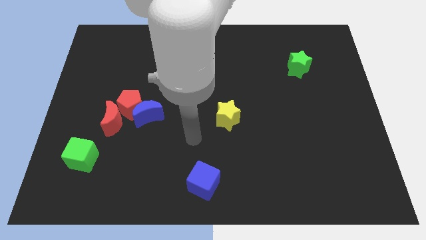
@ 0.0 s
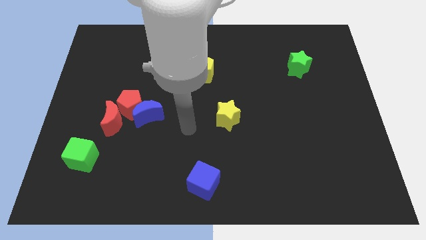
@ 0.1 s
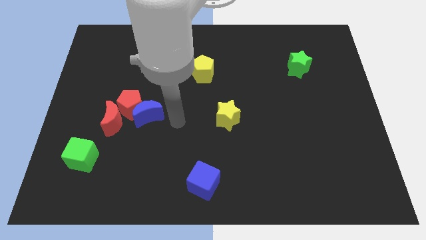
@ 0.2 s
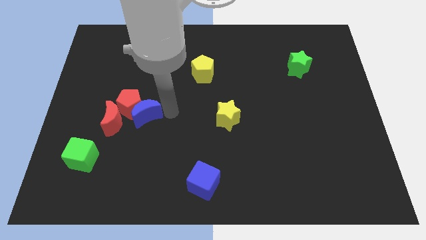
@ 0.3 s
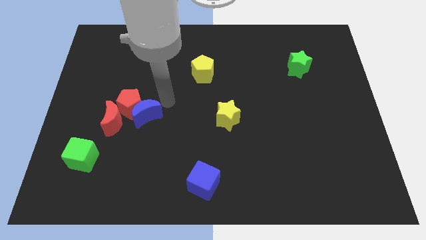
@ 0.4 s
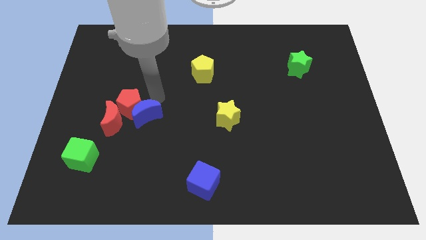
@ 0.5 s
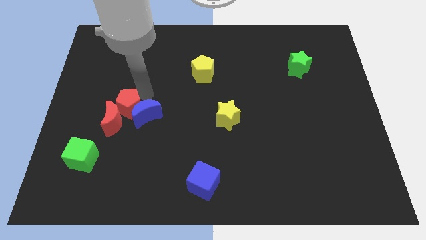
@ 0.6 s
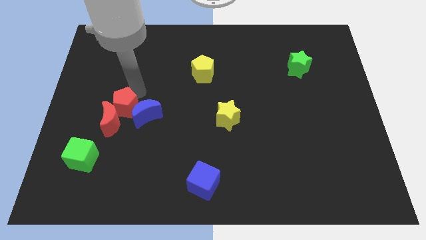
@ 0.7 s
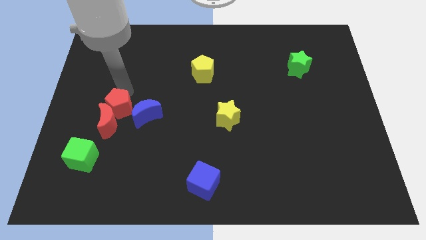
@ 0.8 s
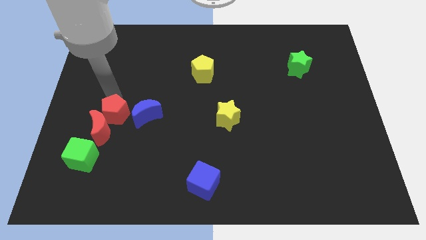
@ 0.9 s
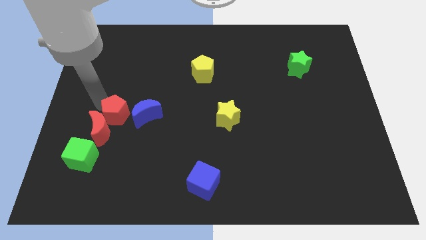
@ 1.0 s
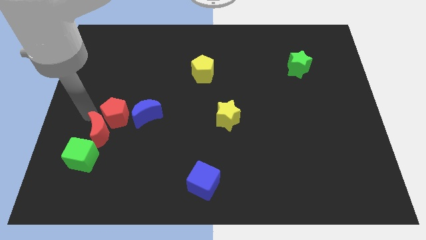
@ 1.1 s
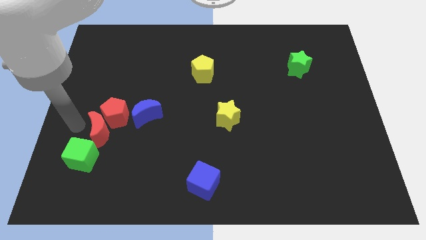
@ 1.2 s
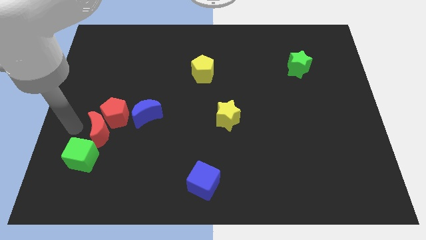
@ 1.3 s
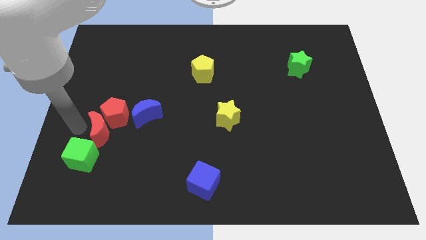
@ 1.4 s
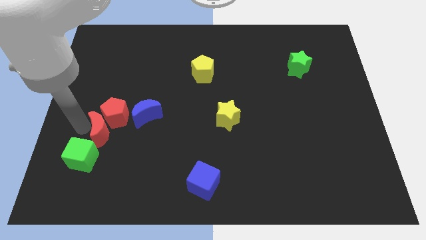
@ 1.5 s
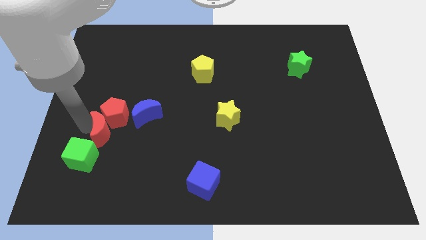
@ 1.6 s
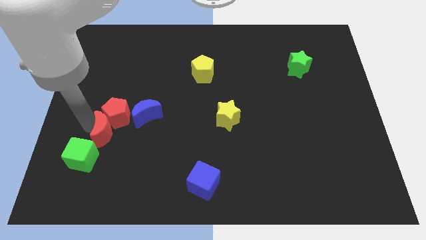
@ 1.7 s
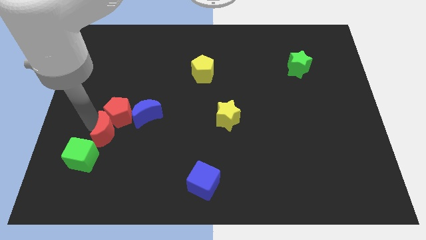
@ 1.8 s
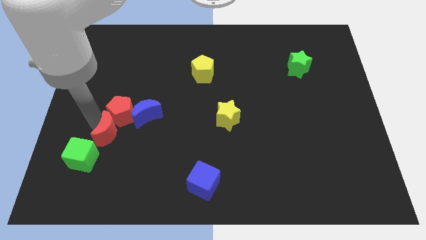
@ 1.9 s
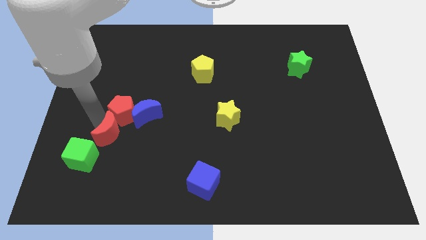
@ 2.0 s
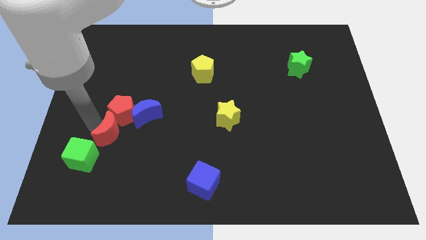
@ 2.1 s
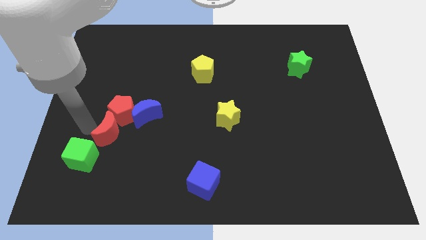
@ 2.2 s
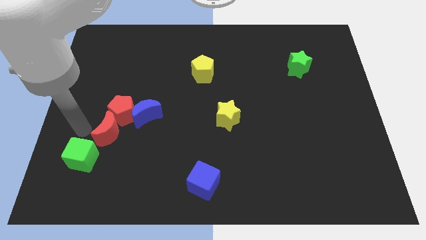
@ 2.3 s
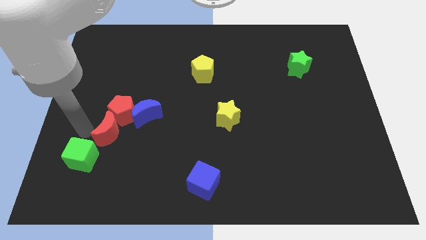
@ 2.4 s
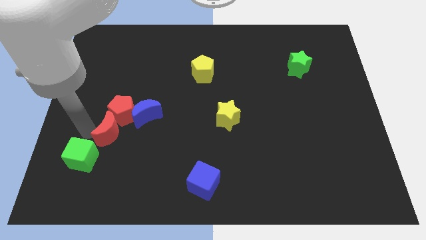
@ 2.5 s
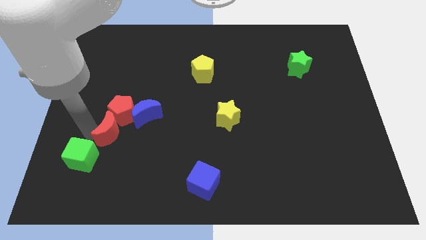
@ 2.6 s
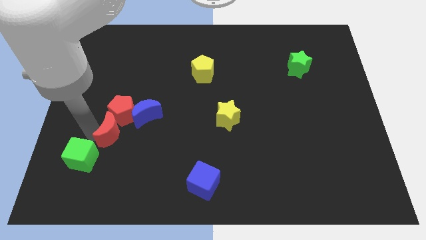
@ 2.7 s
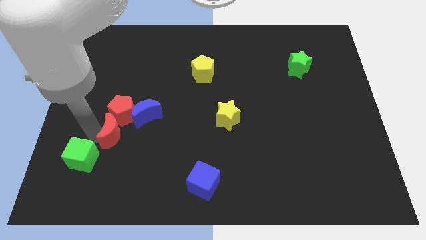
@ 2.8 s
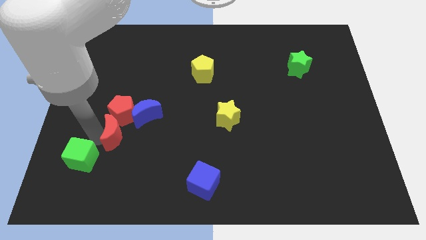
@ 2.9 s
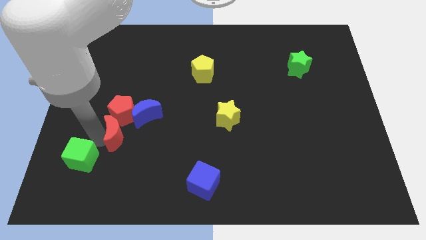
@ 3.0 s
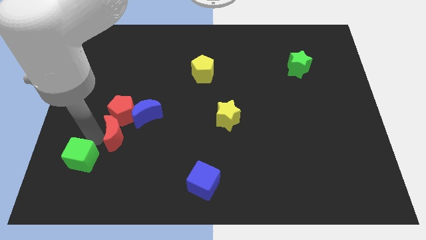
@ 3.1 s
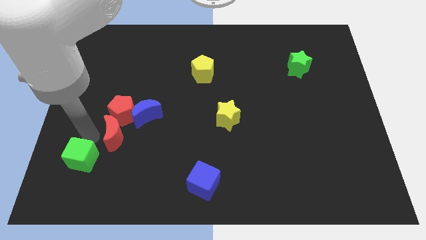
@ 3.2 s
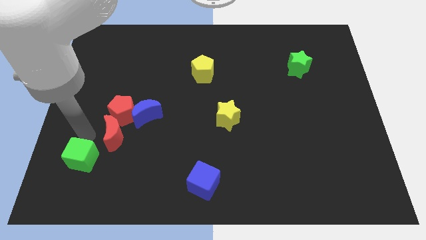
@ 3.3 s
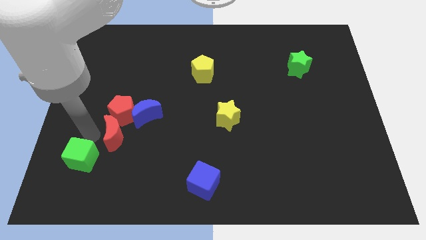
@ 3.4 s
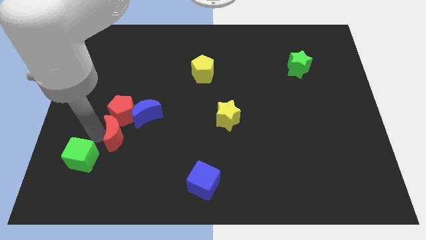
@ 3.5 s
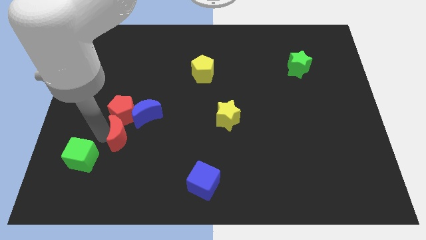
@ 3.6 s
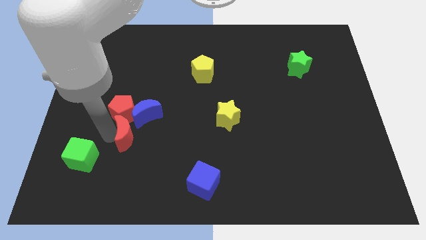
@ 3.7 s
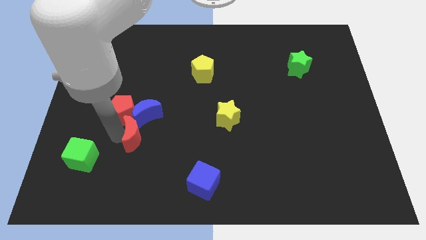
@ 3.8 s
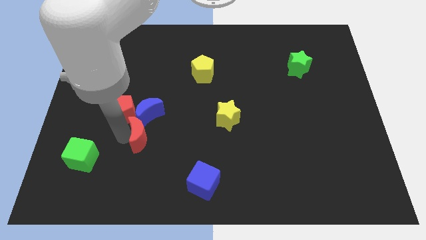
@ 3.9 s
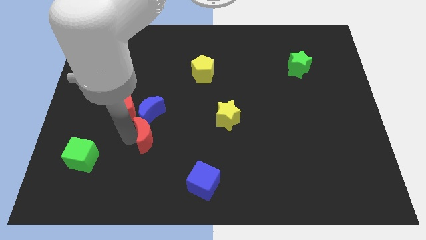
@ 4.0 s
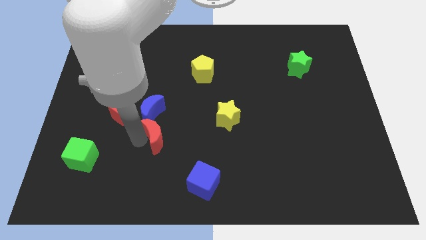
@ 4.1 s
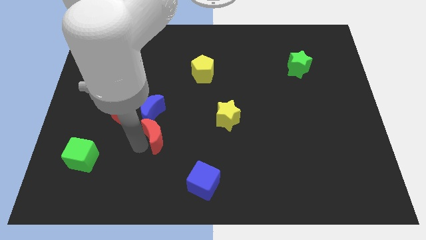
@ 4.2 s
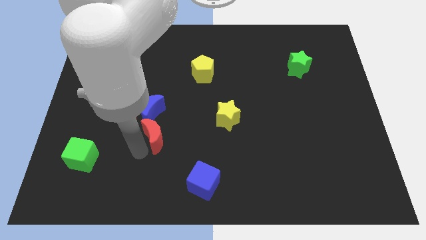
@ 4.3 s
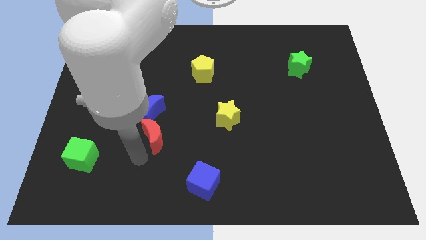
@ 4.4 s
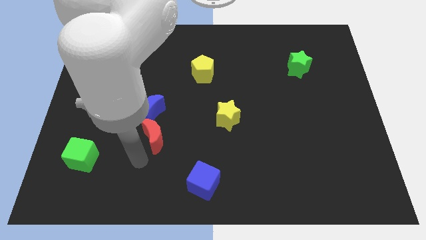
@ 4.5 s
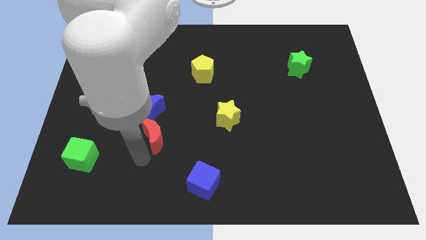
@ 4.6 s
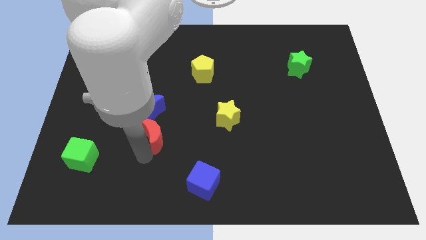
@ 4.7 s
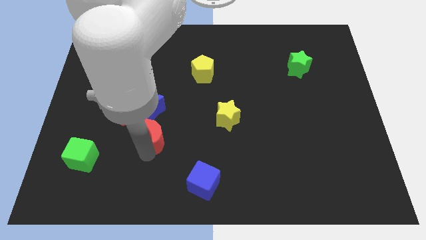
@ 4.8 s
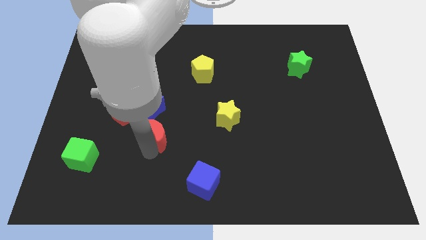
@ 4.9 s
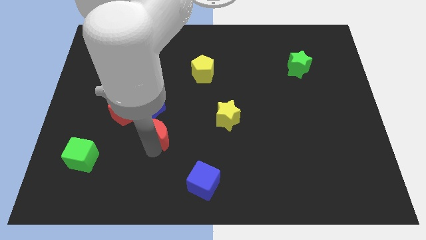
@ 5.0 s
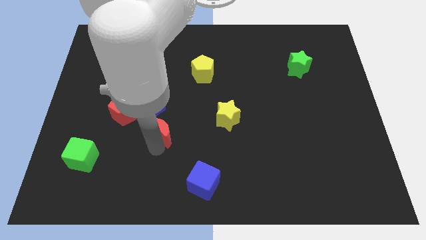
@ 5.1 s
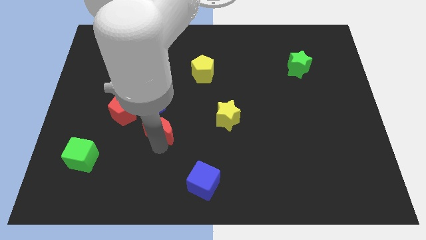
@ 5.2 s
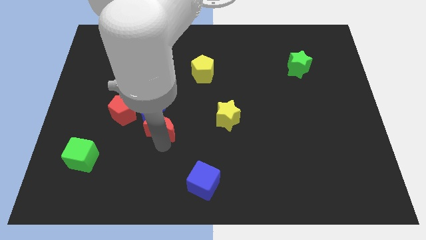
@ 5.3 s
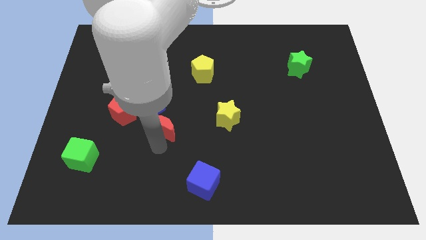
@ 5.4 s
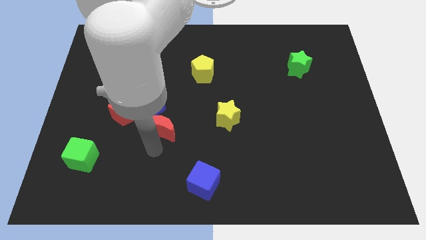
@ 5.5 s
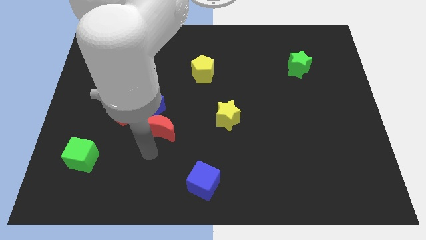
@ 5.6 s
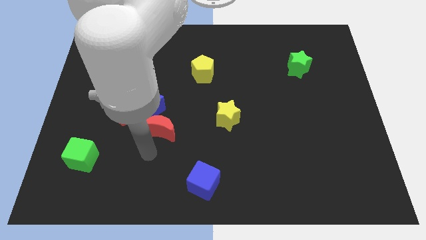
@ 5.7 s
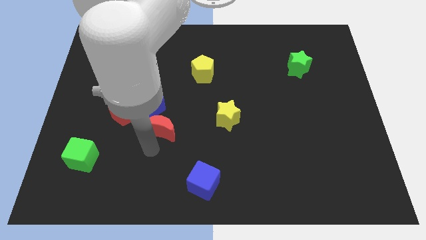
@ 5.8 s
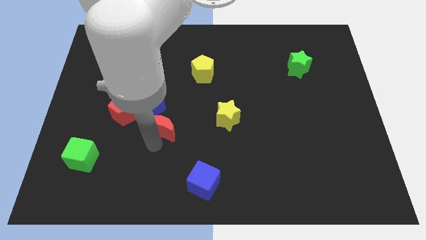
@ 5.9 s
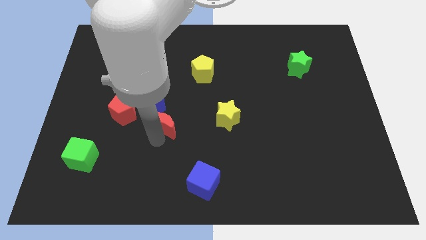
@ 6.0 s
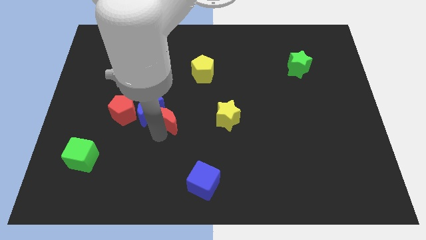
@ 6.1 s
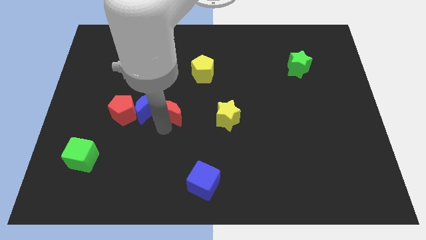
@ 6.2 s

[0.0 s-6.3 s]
move the red moon diagonally up and to the right of the blue moon

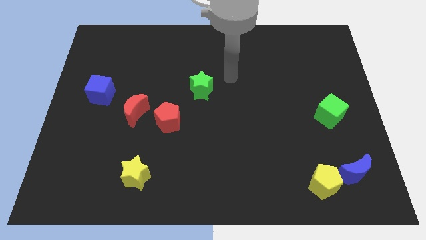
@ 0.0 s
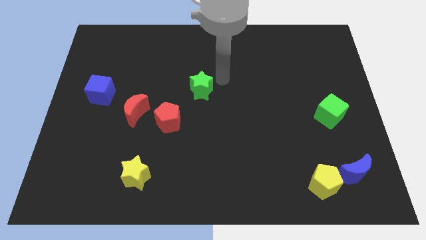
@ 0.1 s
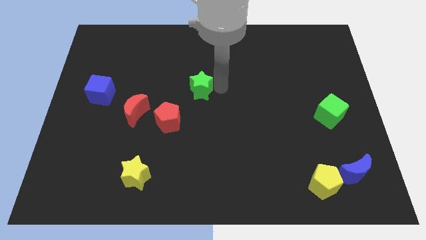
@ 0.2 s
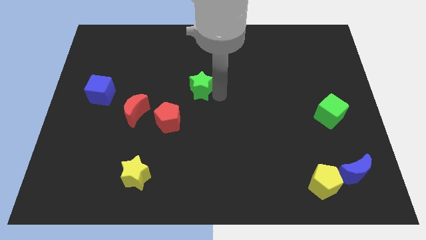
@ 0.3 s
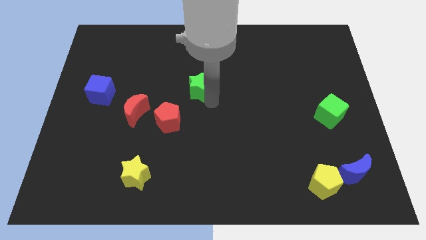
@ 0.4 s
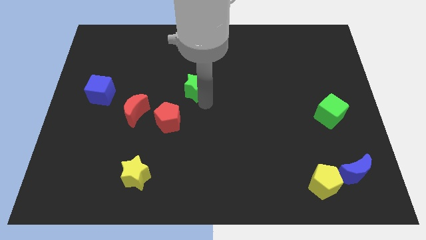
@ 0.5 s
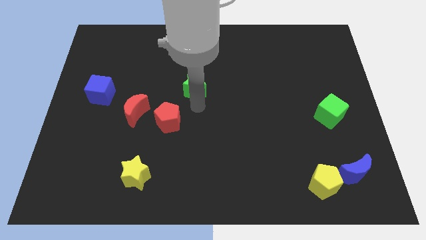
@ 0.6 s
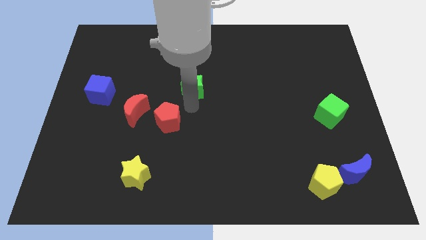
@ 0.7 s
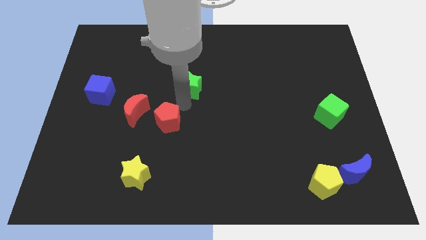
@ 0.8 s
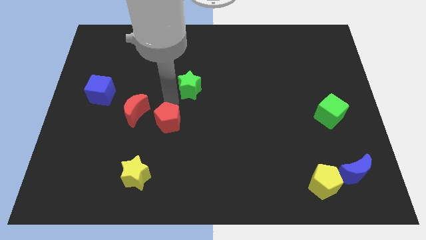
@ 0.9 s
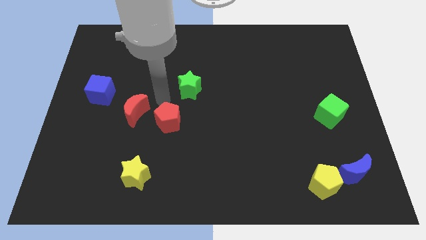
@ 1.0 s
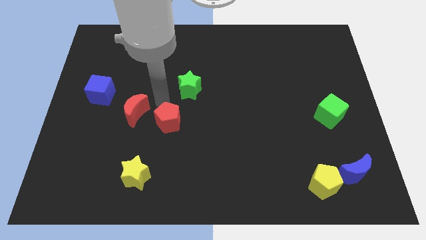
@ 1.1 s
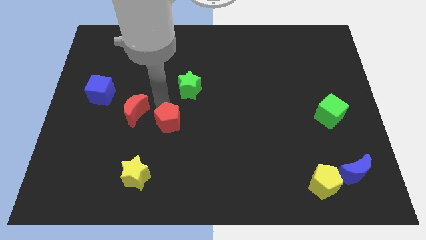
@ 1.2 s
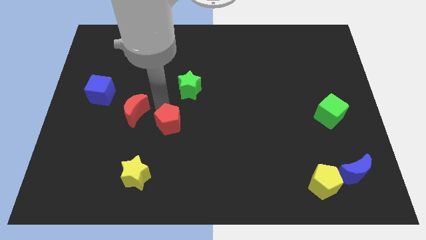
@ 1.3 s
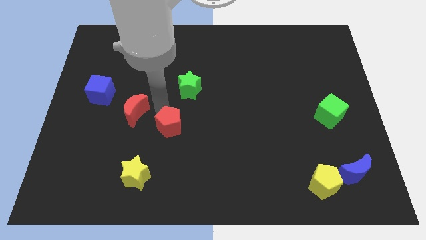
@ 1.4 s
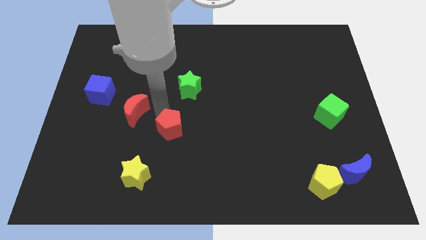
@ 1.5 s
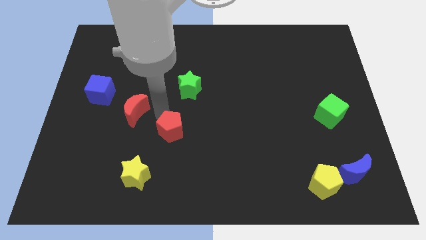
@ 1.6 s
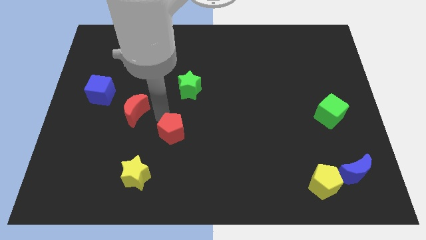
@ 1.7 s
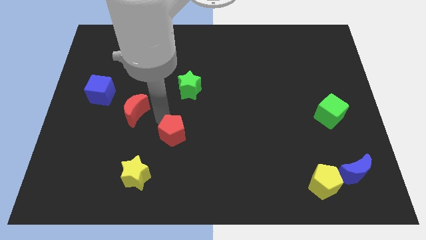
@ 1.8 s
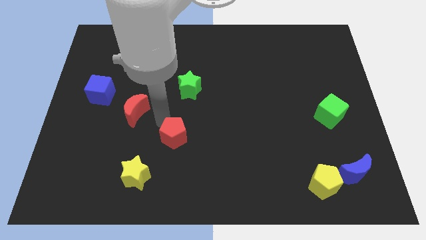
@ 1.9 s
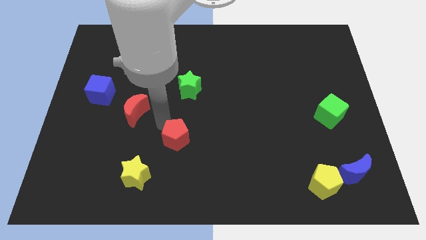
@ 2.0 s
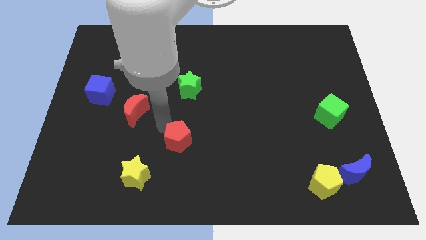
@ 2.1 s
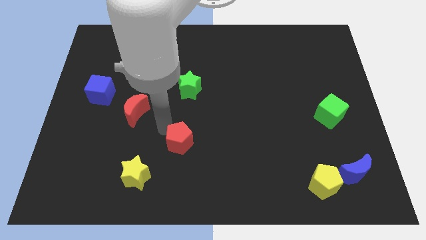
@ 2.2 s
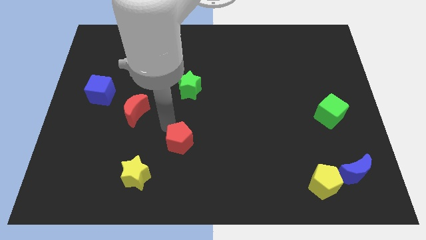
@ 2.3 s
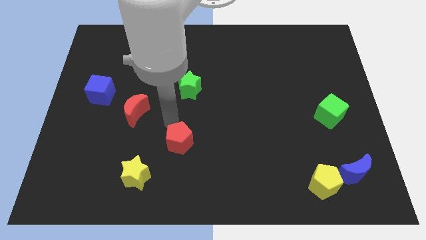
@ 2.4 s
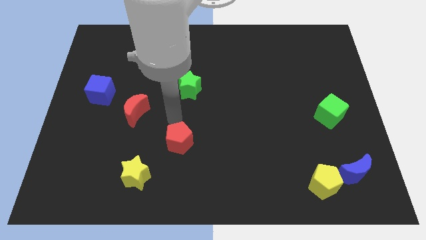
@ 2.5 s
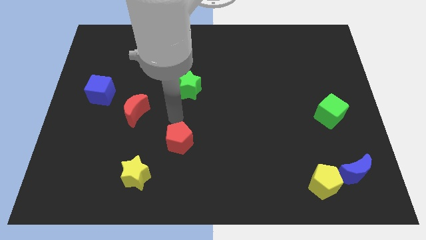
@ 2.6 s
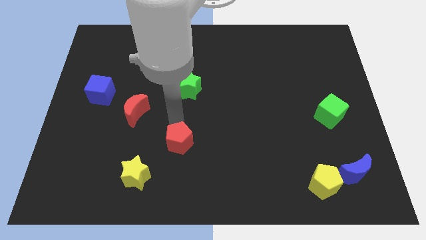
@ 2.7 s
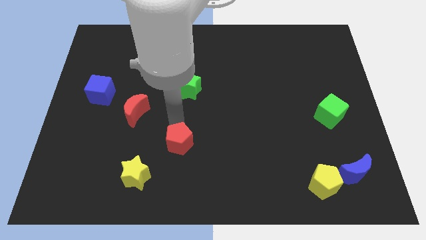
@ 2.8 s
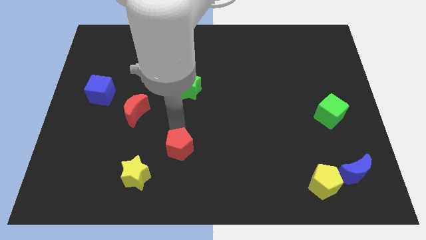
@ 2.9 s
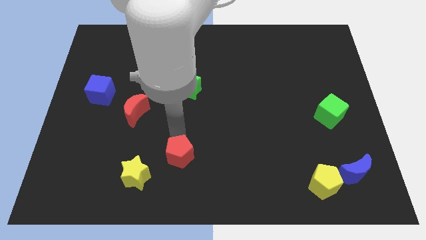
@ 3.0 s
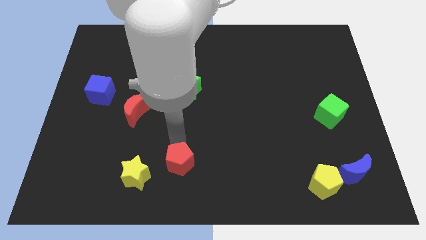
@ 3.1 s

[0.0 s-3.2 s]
push the red pentagon to the right of the yellow star
